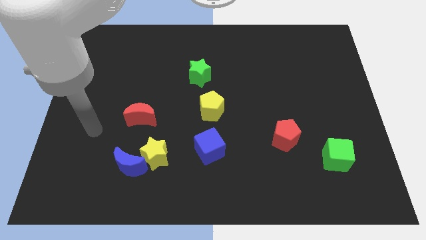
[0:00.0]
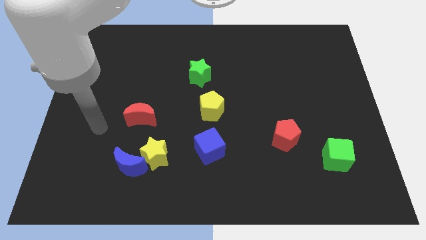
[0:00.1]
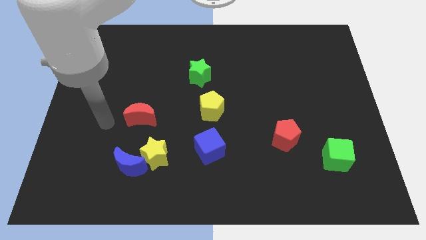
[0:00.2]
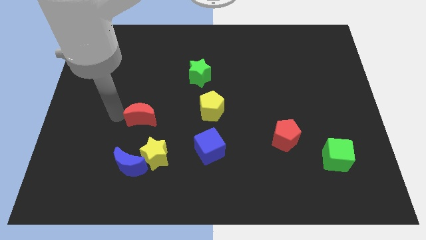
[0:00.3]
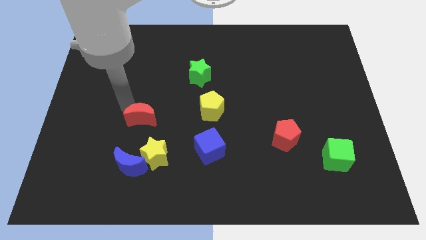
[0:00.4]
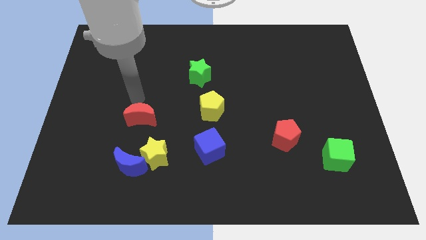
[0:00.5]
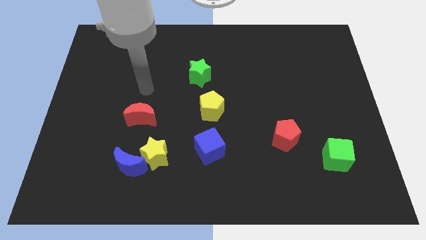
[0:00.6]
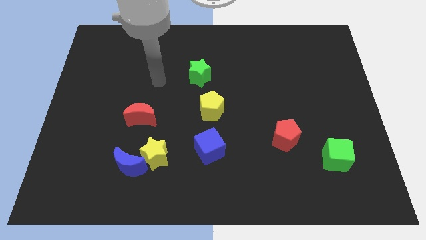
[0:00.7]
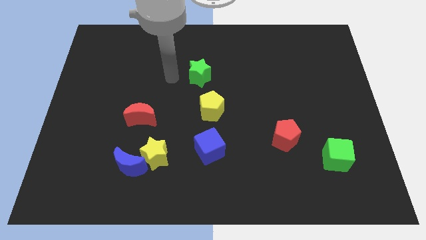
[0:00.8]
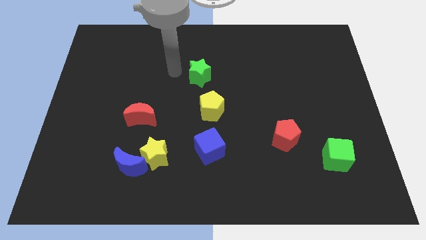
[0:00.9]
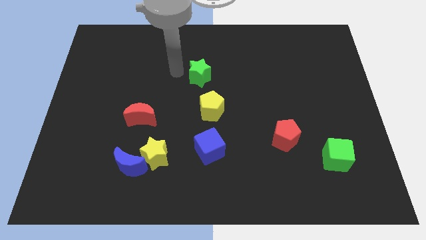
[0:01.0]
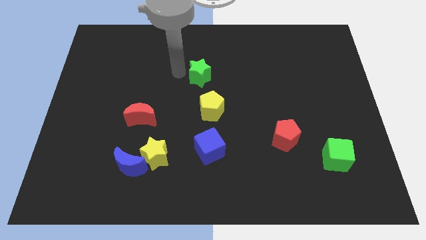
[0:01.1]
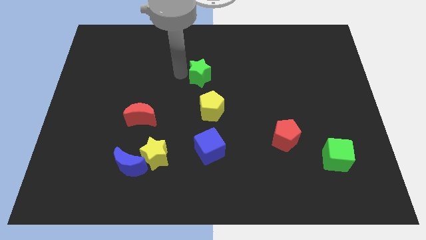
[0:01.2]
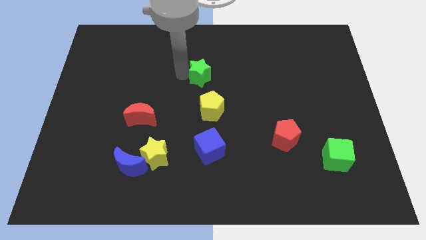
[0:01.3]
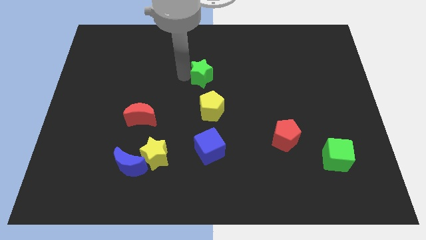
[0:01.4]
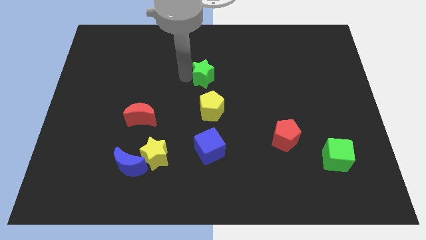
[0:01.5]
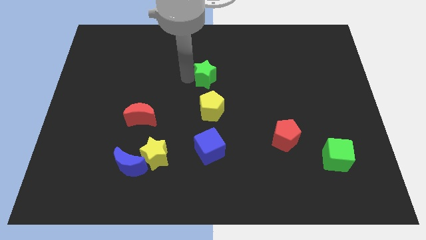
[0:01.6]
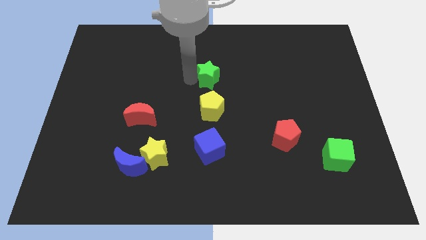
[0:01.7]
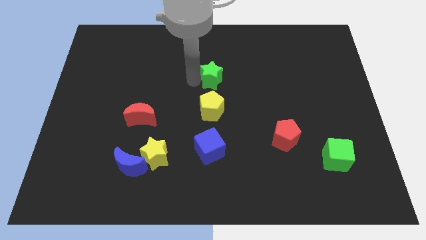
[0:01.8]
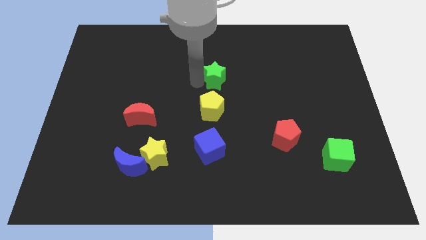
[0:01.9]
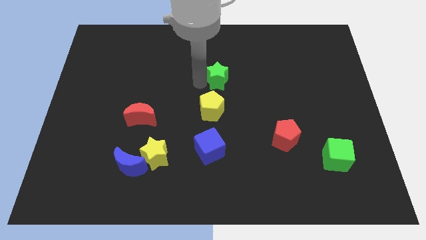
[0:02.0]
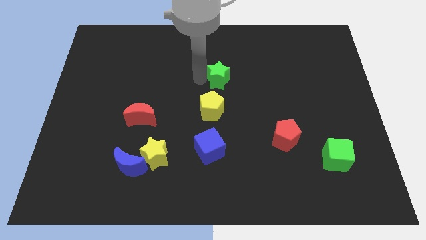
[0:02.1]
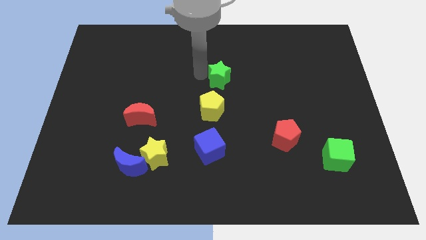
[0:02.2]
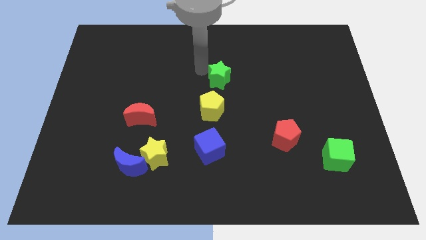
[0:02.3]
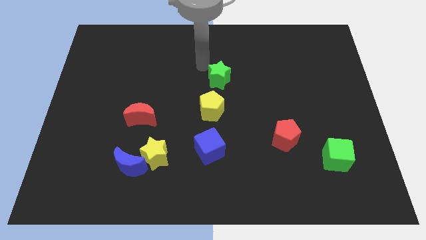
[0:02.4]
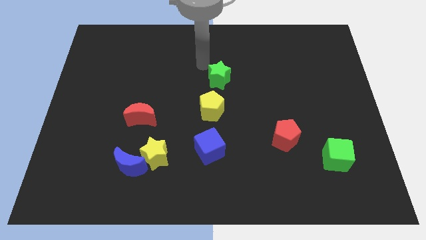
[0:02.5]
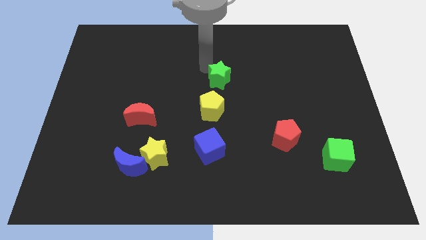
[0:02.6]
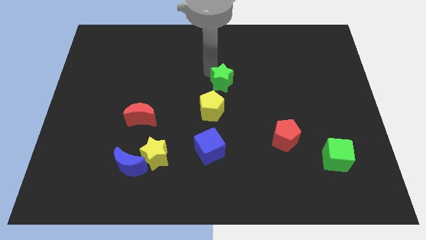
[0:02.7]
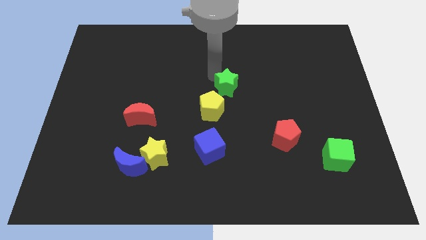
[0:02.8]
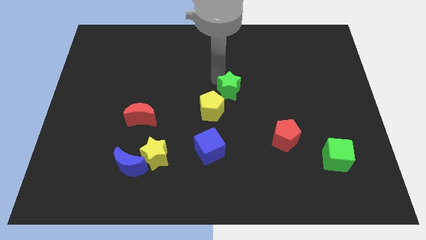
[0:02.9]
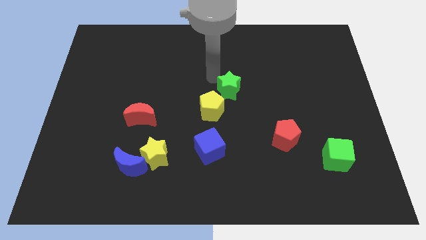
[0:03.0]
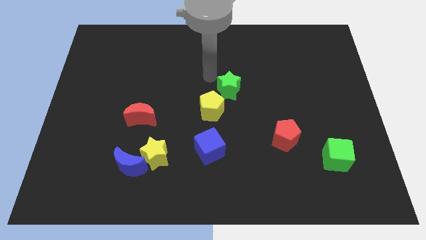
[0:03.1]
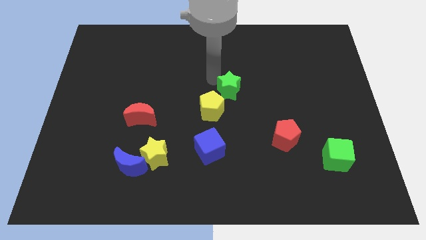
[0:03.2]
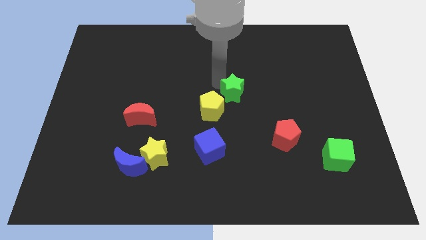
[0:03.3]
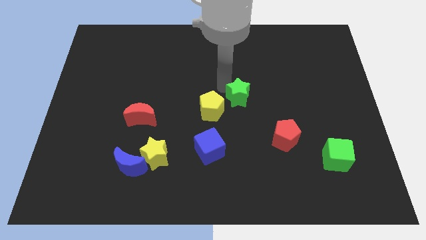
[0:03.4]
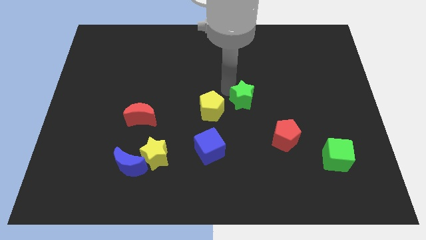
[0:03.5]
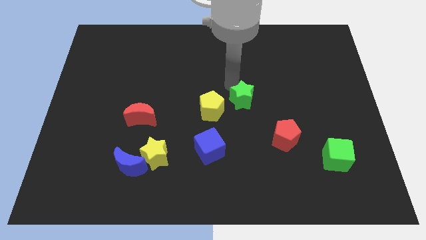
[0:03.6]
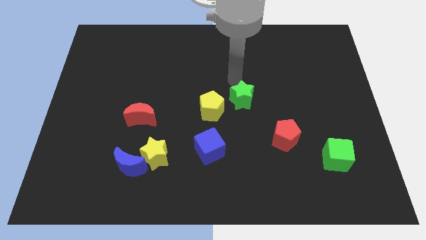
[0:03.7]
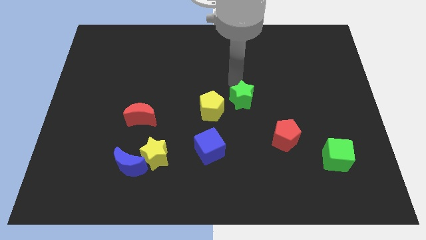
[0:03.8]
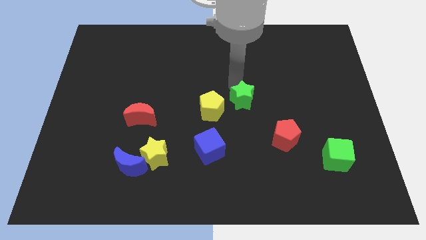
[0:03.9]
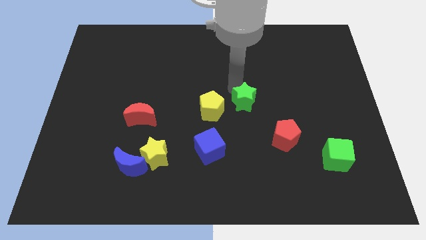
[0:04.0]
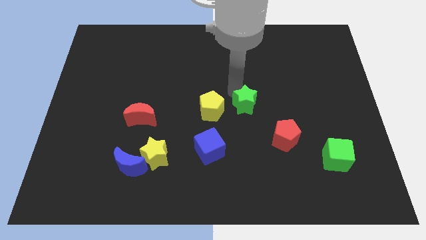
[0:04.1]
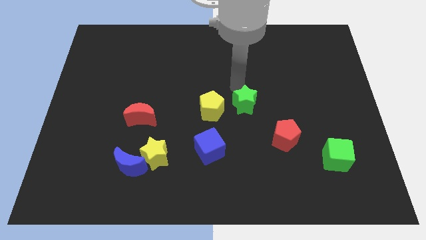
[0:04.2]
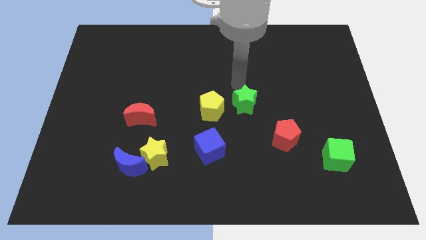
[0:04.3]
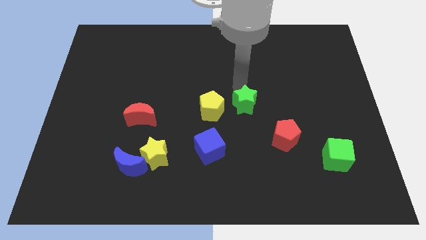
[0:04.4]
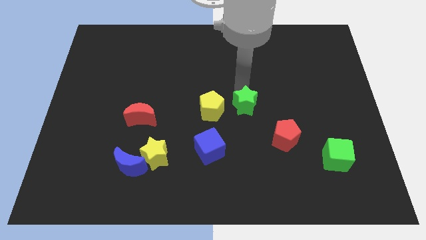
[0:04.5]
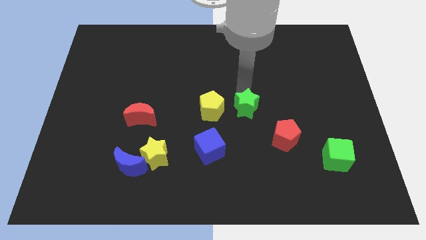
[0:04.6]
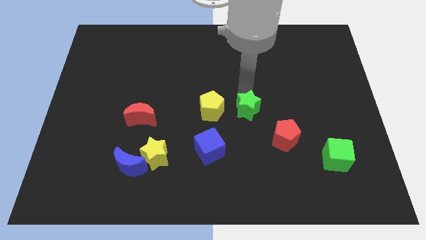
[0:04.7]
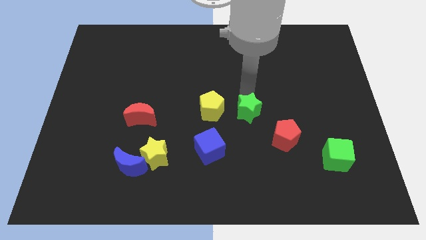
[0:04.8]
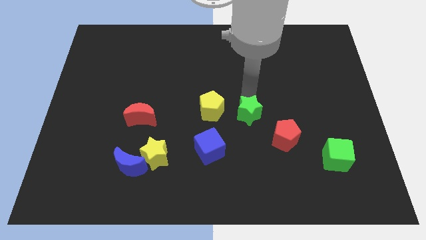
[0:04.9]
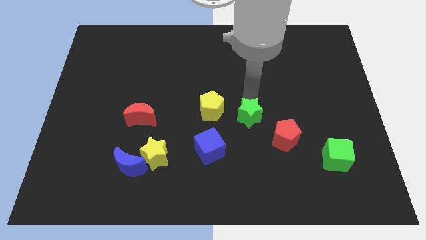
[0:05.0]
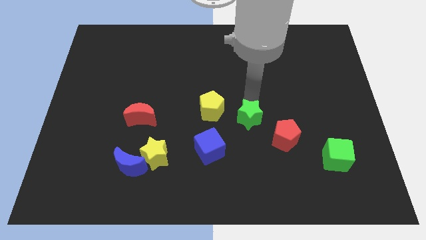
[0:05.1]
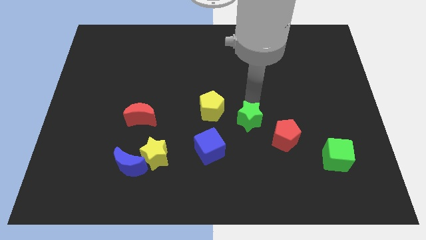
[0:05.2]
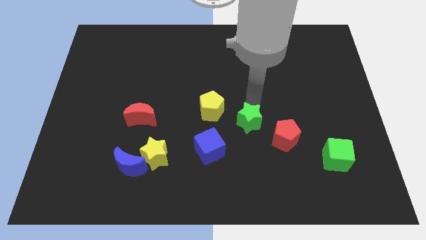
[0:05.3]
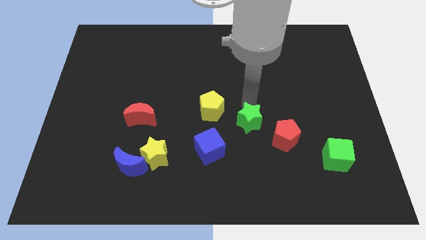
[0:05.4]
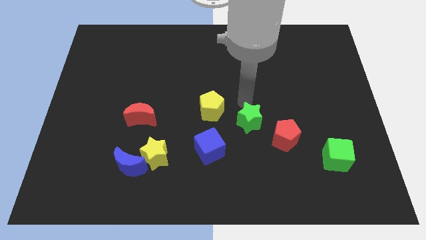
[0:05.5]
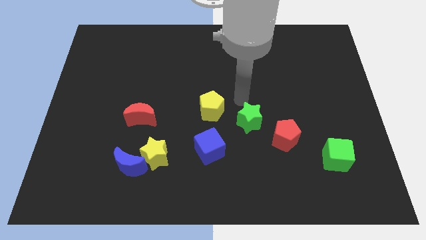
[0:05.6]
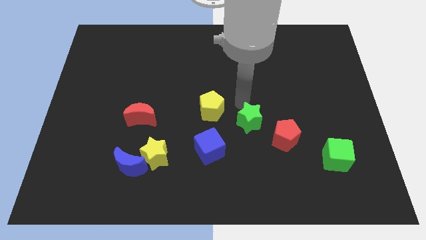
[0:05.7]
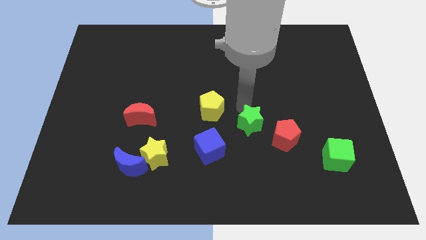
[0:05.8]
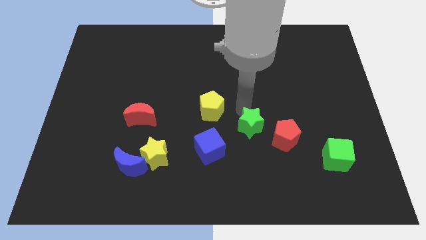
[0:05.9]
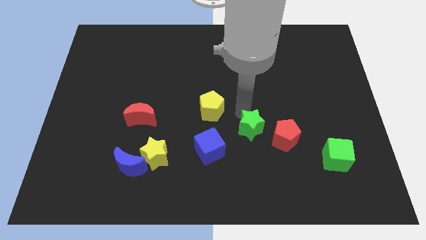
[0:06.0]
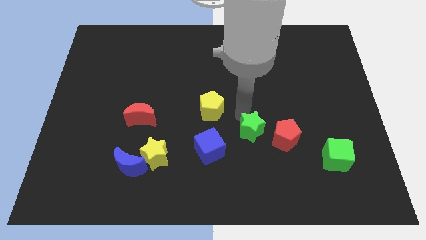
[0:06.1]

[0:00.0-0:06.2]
slide the green star down and then right

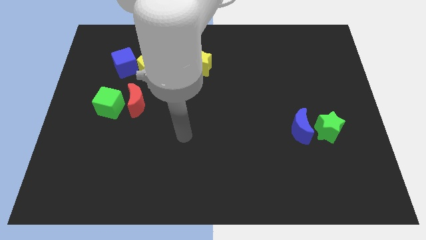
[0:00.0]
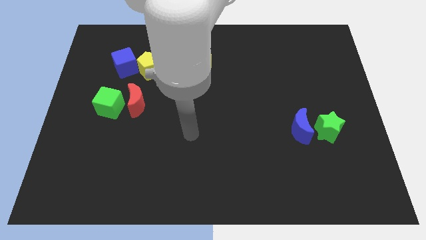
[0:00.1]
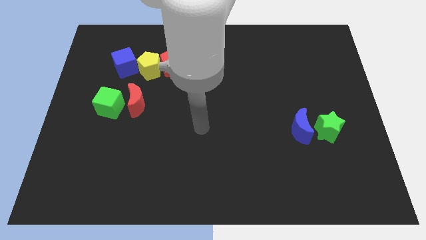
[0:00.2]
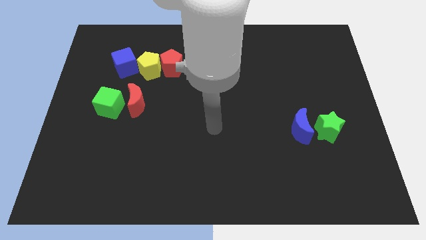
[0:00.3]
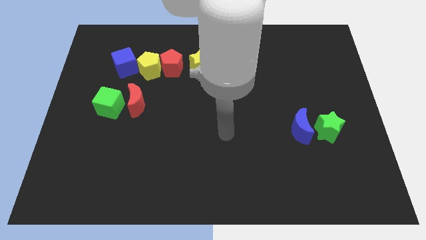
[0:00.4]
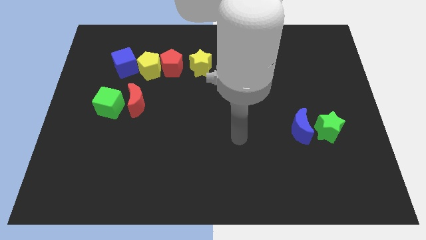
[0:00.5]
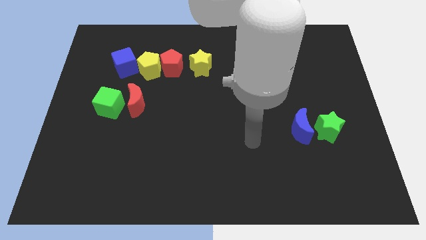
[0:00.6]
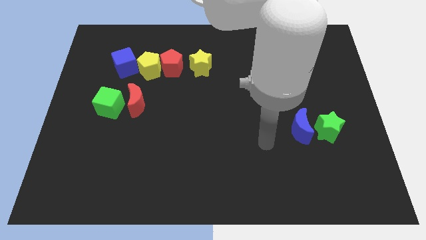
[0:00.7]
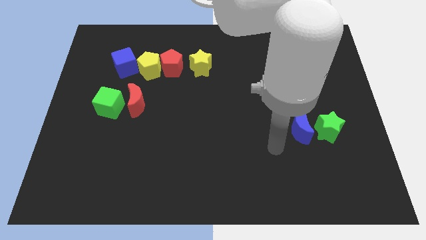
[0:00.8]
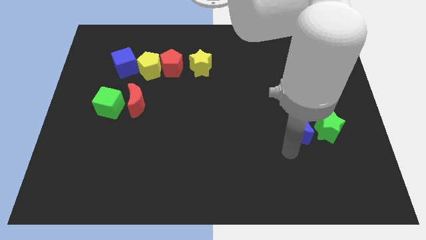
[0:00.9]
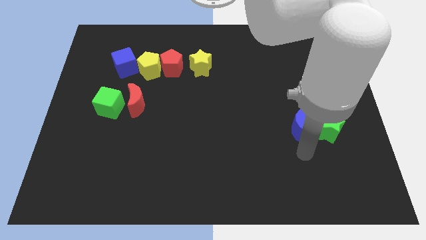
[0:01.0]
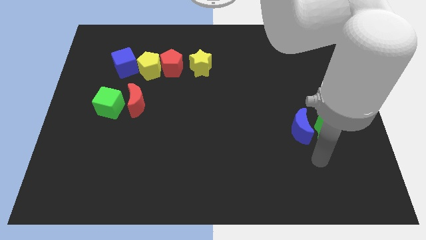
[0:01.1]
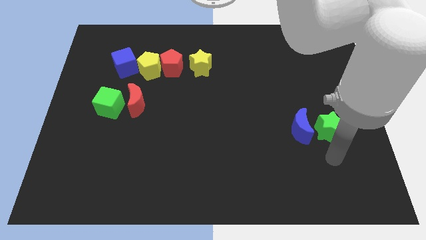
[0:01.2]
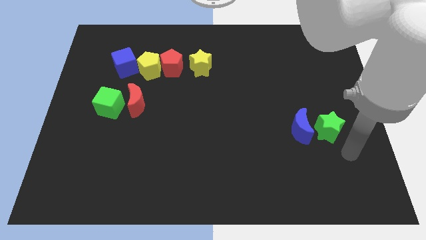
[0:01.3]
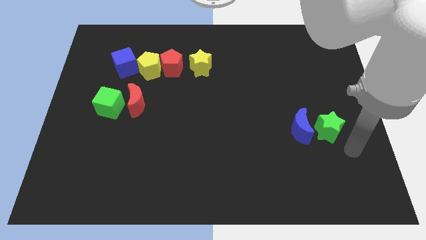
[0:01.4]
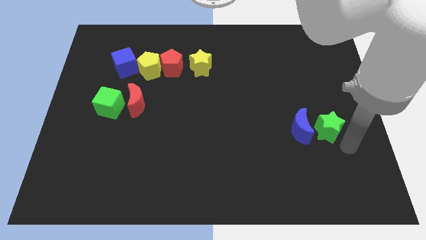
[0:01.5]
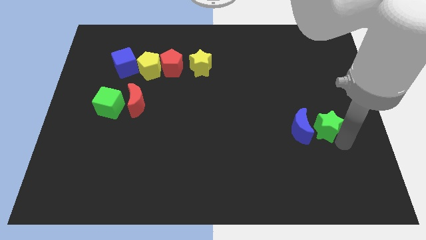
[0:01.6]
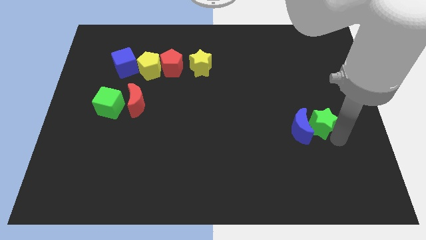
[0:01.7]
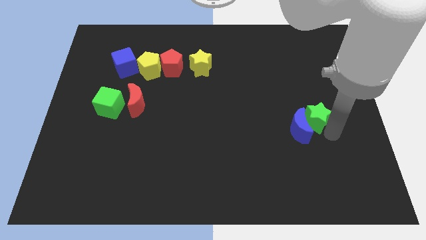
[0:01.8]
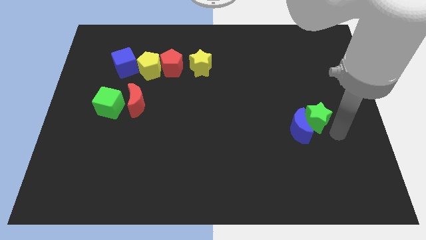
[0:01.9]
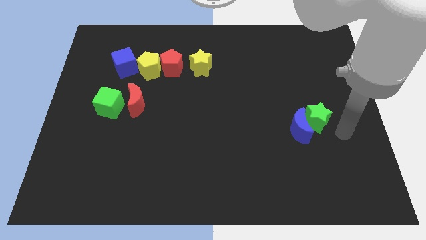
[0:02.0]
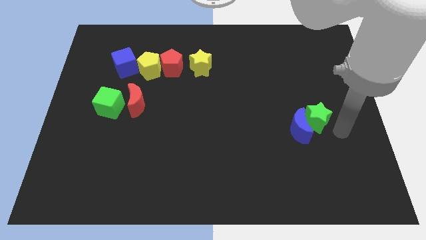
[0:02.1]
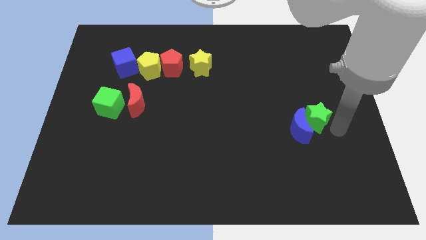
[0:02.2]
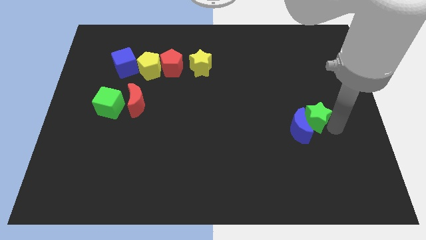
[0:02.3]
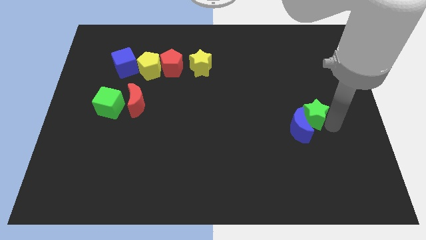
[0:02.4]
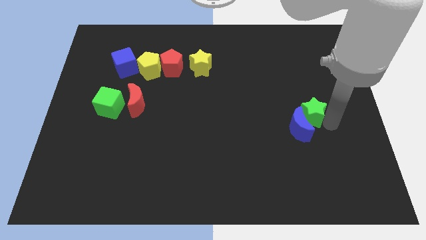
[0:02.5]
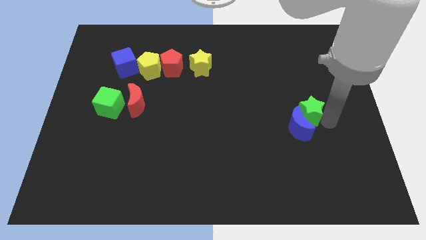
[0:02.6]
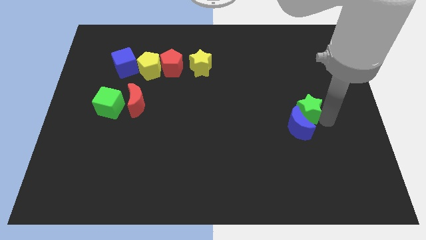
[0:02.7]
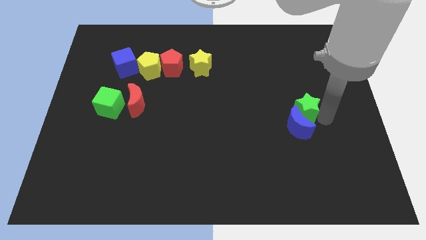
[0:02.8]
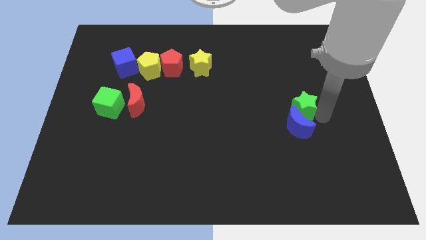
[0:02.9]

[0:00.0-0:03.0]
move the green star upwards and left slightly
